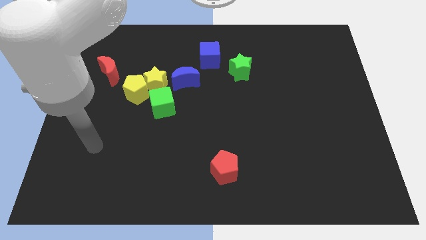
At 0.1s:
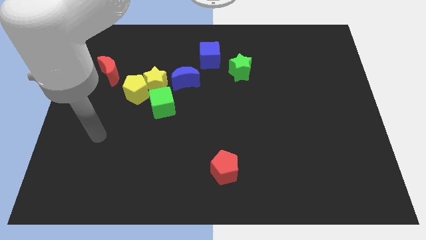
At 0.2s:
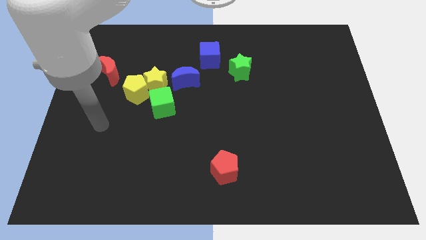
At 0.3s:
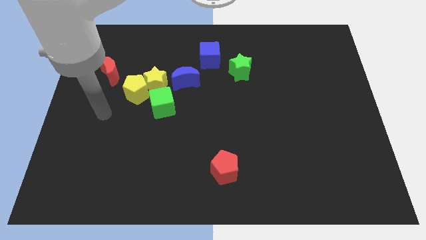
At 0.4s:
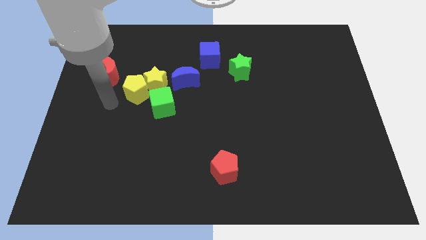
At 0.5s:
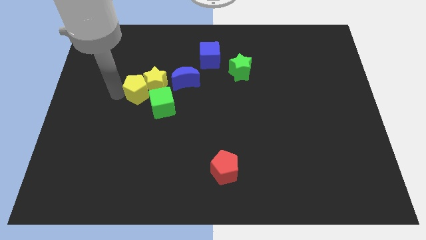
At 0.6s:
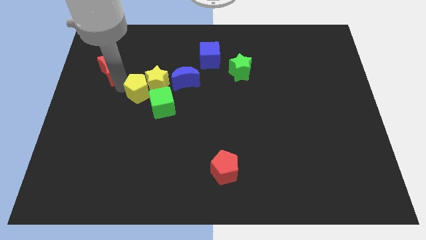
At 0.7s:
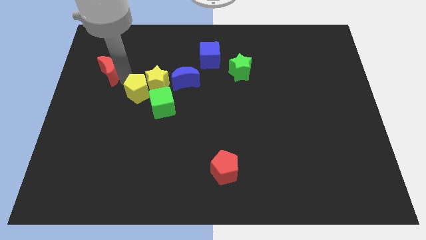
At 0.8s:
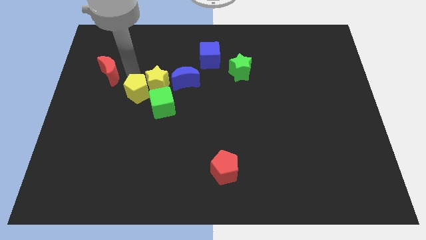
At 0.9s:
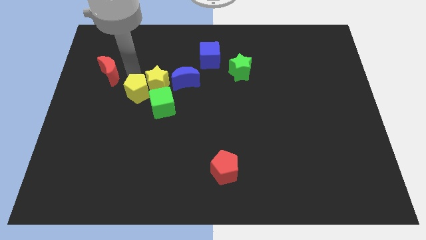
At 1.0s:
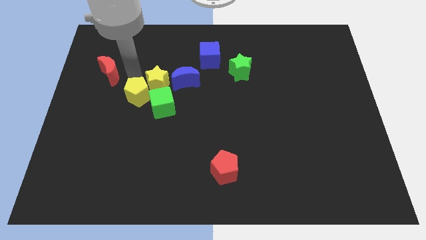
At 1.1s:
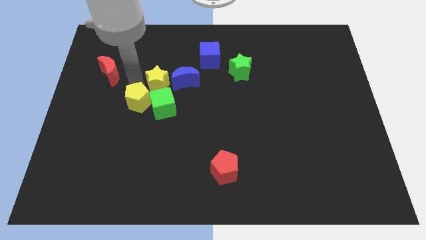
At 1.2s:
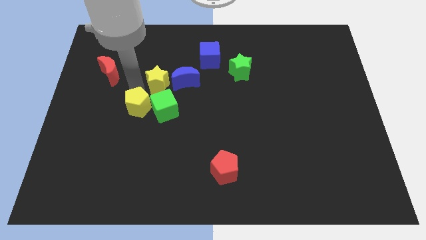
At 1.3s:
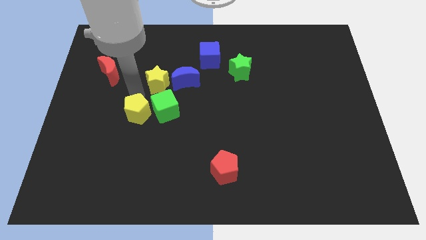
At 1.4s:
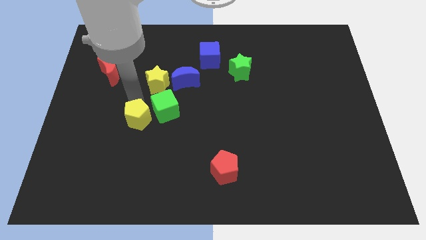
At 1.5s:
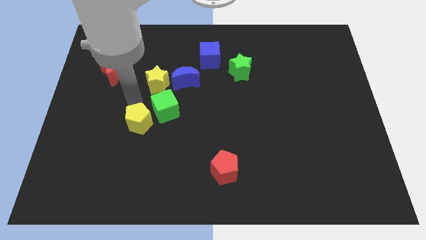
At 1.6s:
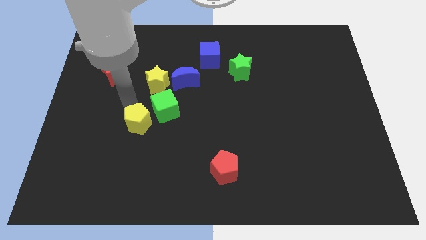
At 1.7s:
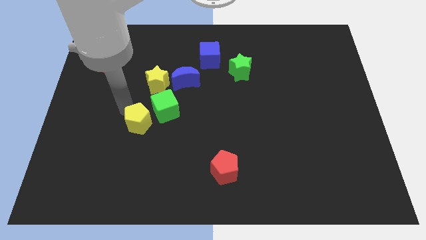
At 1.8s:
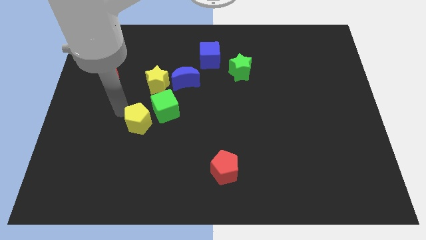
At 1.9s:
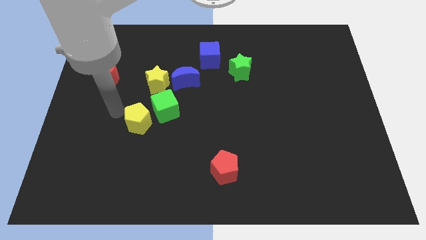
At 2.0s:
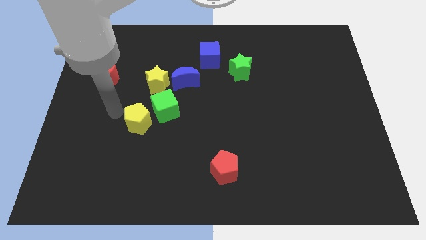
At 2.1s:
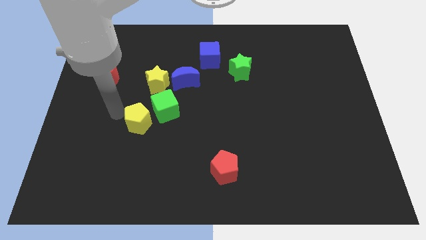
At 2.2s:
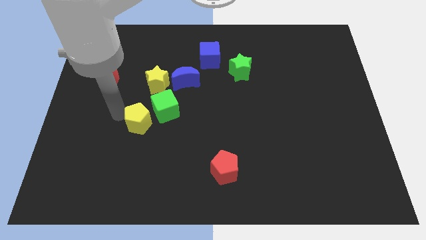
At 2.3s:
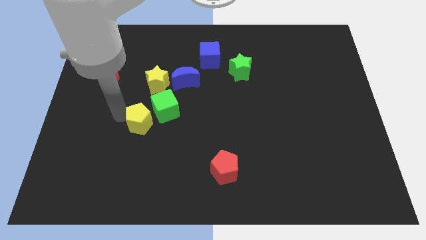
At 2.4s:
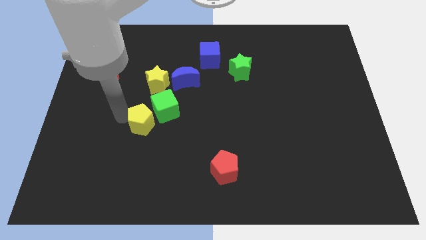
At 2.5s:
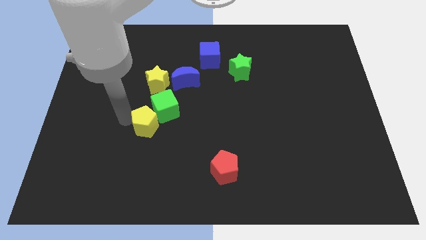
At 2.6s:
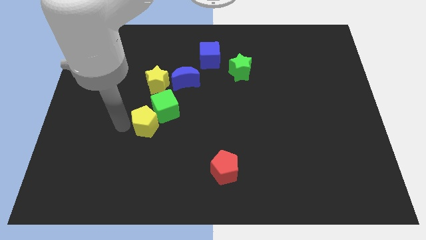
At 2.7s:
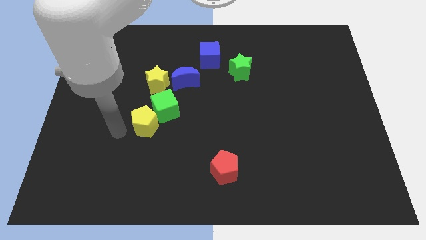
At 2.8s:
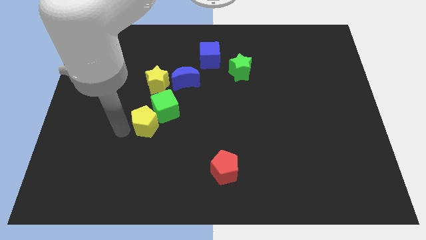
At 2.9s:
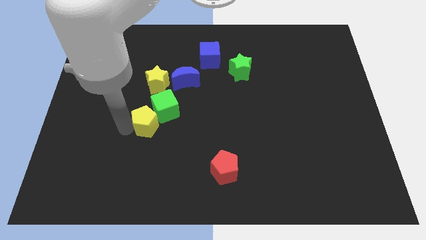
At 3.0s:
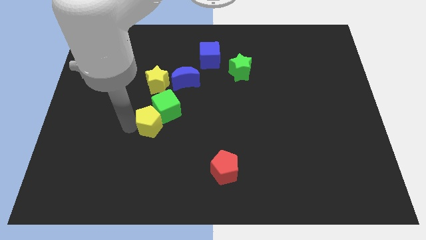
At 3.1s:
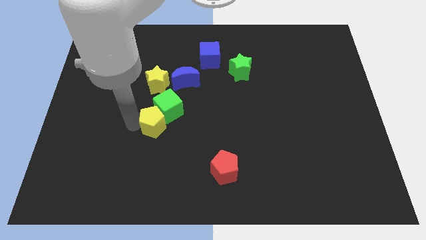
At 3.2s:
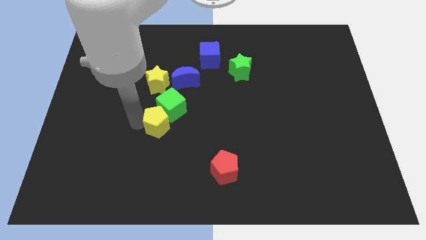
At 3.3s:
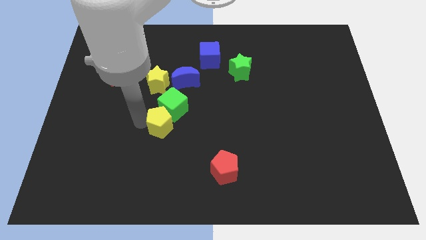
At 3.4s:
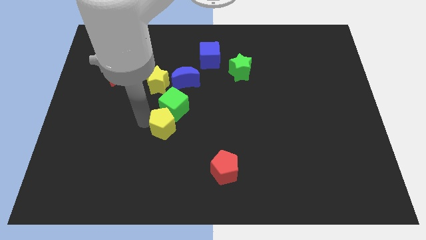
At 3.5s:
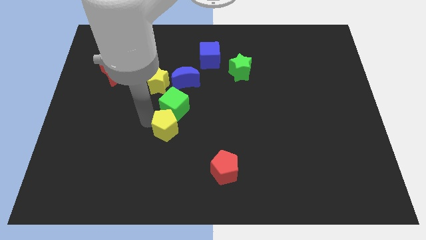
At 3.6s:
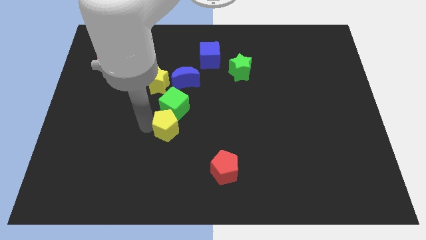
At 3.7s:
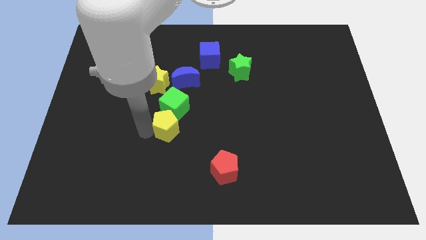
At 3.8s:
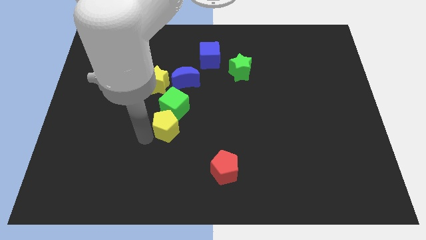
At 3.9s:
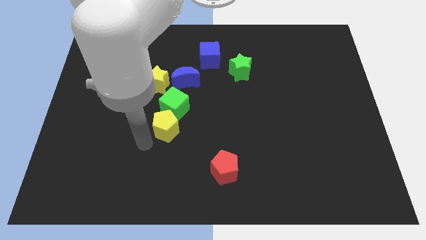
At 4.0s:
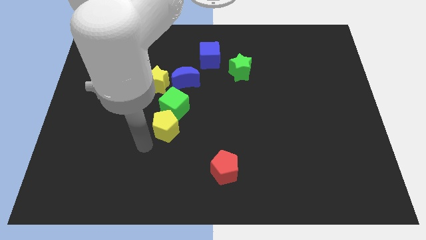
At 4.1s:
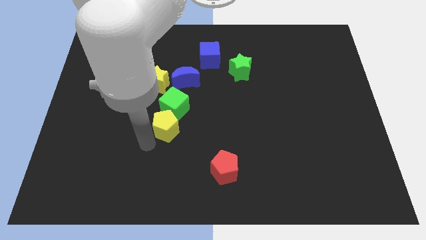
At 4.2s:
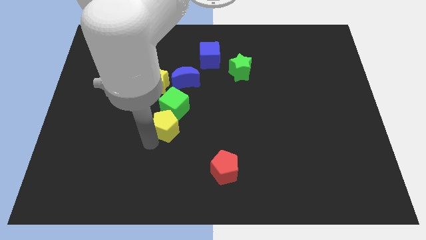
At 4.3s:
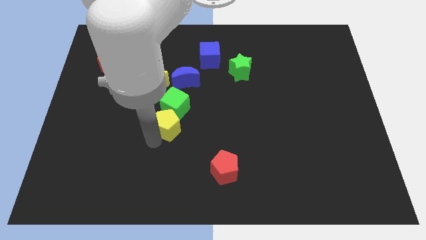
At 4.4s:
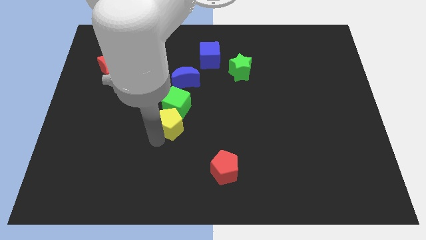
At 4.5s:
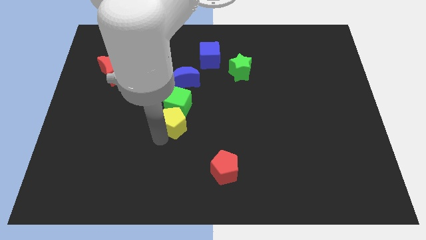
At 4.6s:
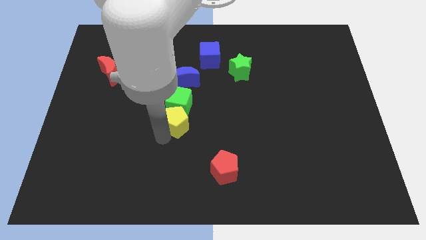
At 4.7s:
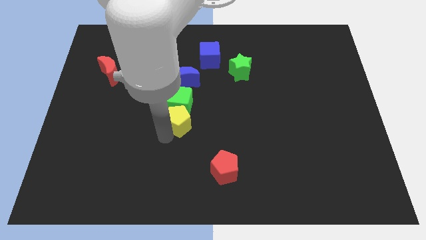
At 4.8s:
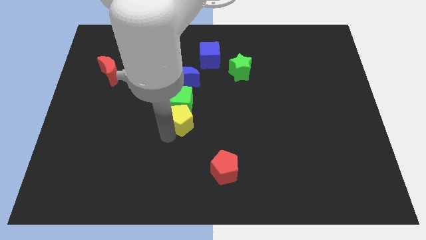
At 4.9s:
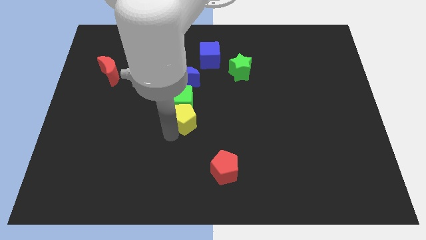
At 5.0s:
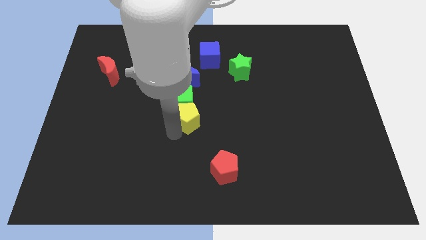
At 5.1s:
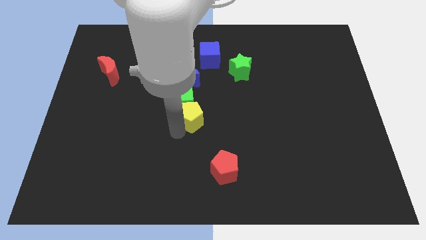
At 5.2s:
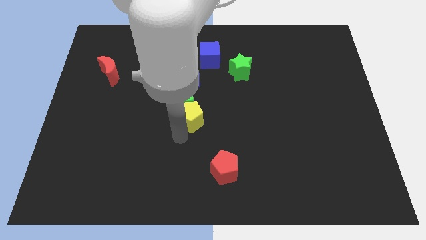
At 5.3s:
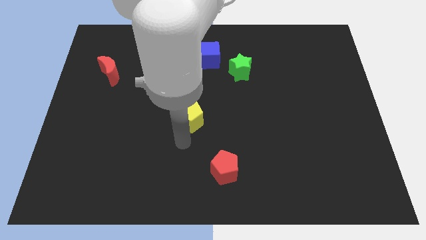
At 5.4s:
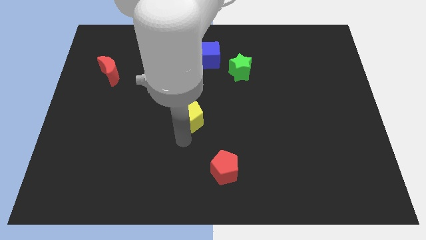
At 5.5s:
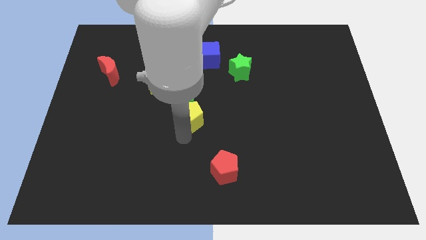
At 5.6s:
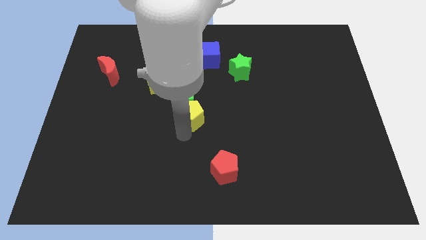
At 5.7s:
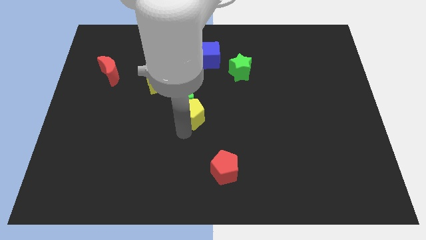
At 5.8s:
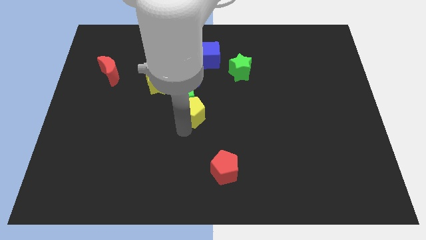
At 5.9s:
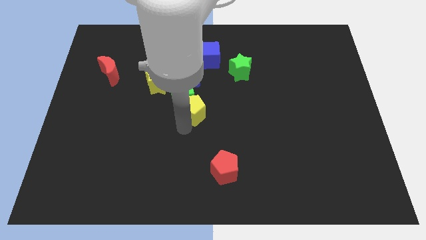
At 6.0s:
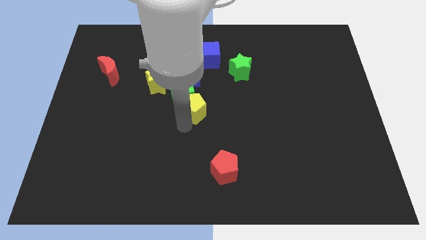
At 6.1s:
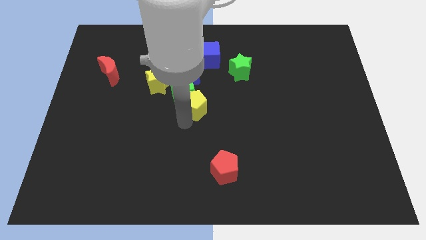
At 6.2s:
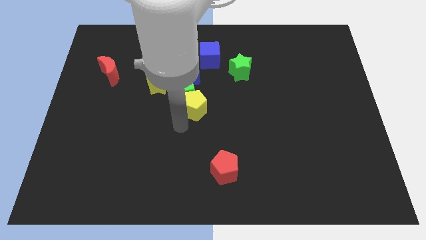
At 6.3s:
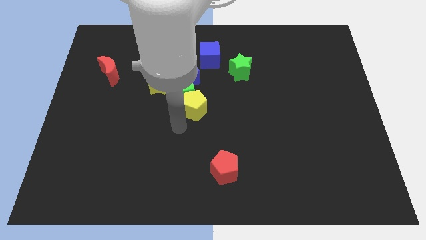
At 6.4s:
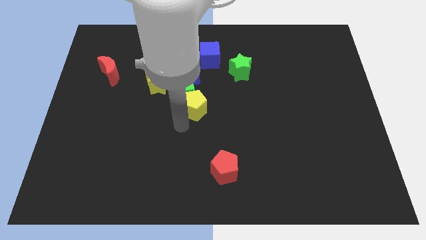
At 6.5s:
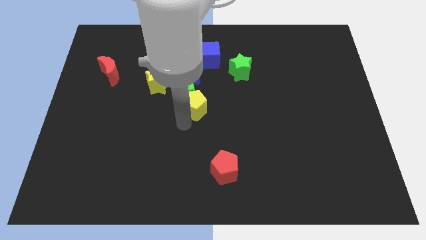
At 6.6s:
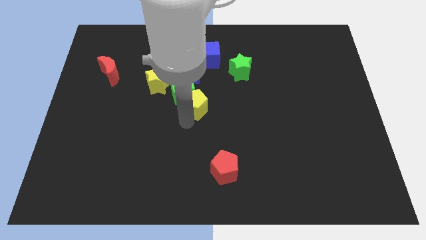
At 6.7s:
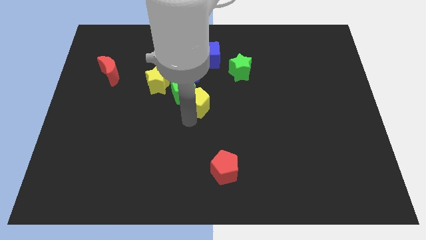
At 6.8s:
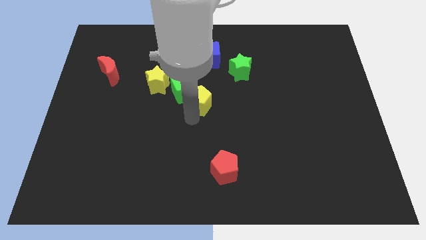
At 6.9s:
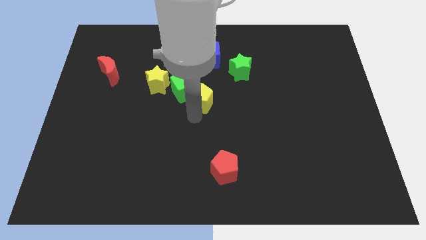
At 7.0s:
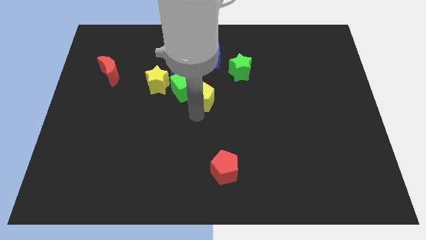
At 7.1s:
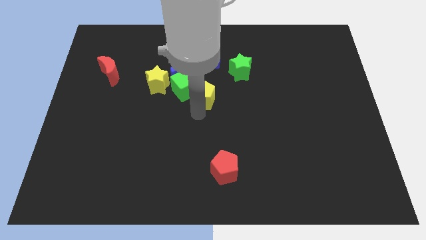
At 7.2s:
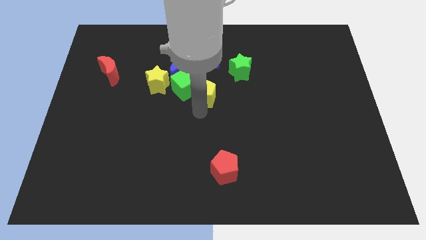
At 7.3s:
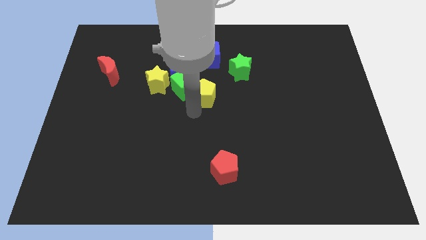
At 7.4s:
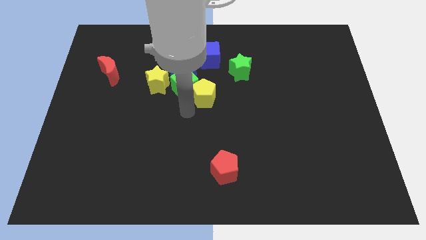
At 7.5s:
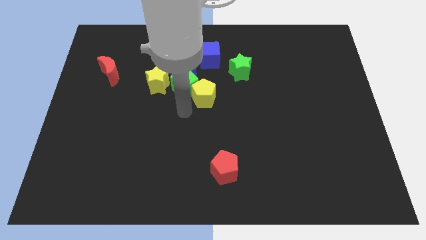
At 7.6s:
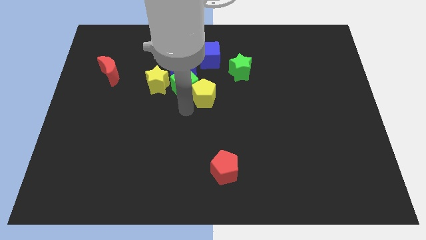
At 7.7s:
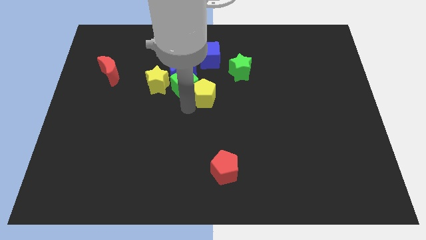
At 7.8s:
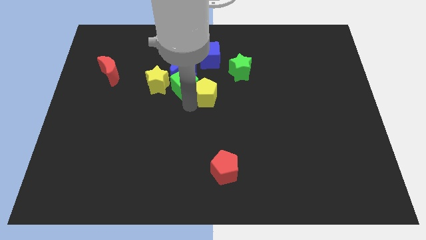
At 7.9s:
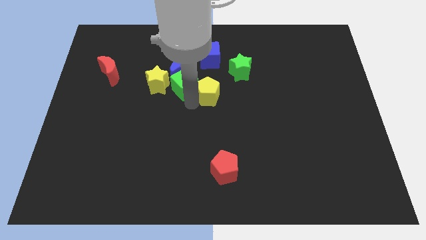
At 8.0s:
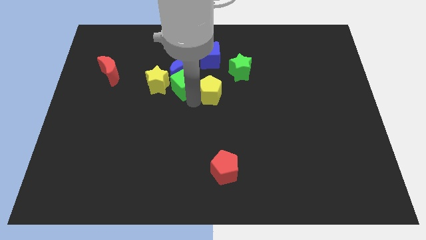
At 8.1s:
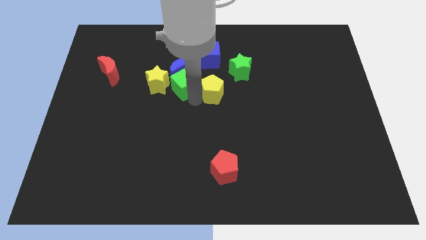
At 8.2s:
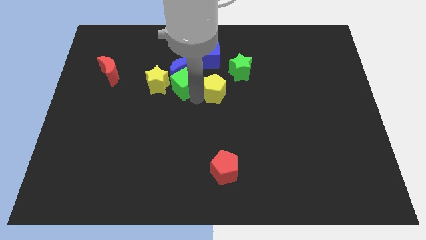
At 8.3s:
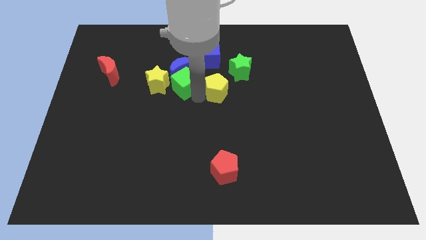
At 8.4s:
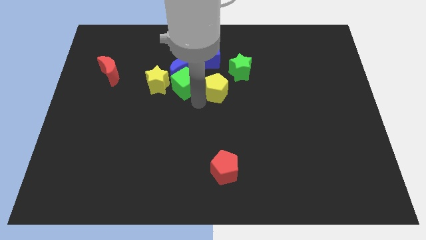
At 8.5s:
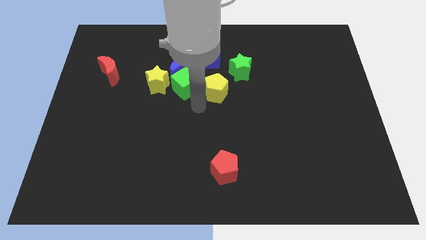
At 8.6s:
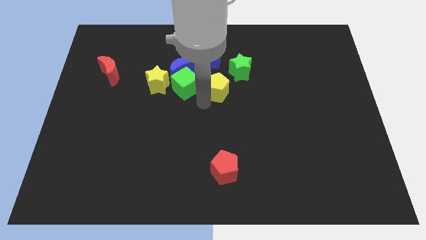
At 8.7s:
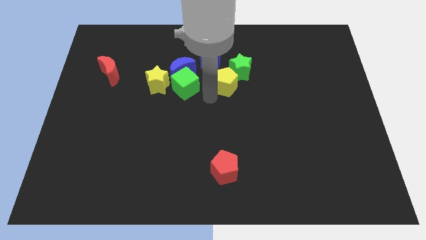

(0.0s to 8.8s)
put the yellow pentagon towards the green star
